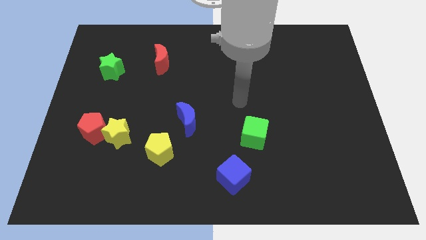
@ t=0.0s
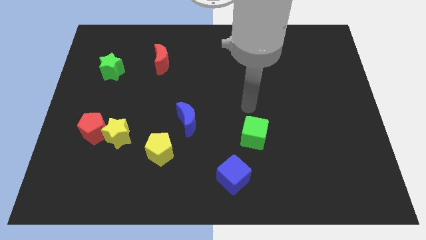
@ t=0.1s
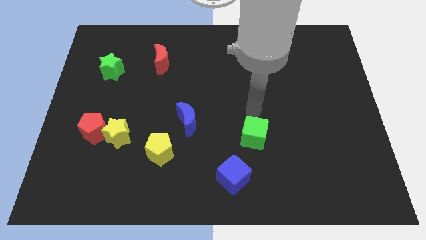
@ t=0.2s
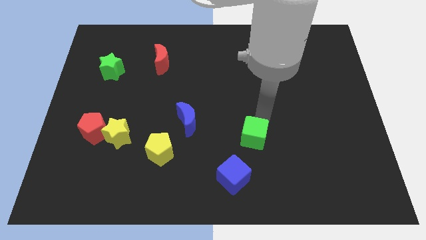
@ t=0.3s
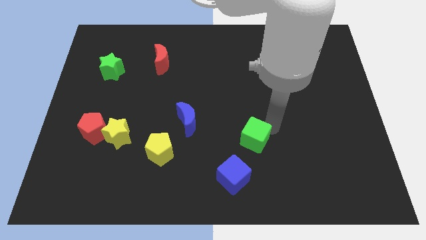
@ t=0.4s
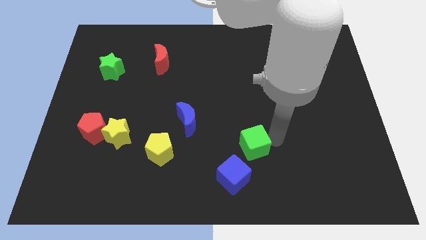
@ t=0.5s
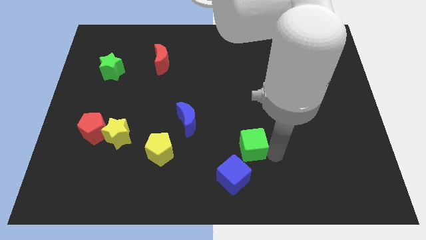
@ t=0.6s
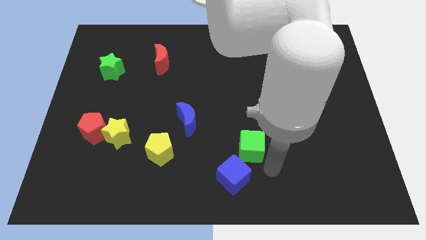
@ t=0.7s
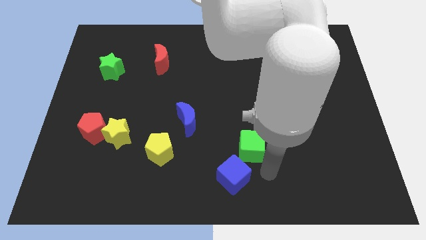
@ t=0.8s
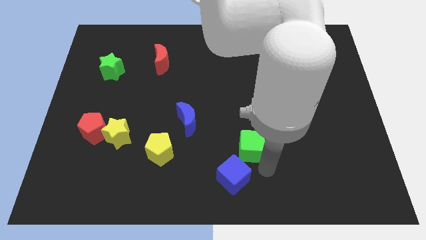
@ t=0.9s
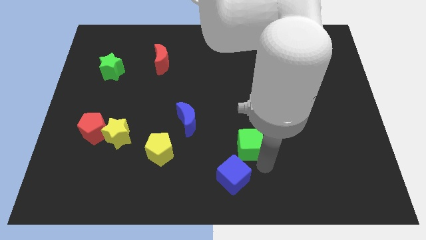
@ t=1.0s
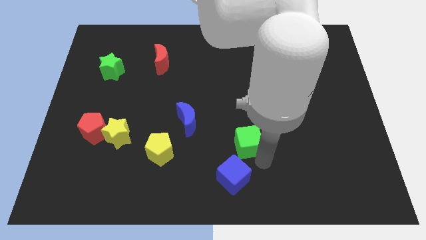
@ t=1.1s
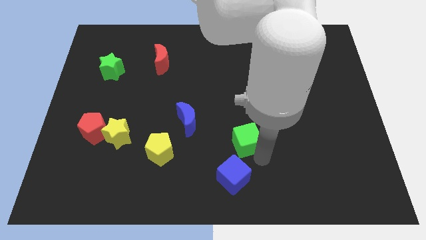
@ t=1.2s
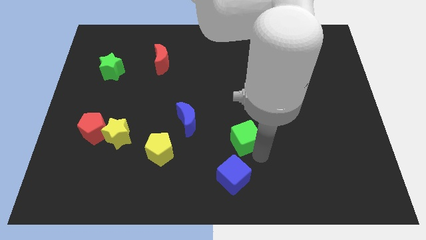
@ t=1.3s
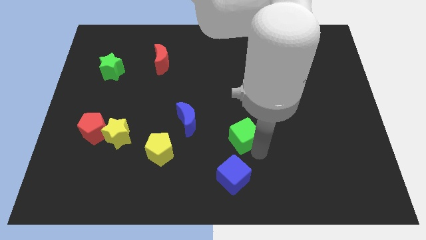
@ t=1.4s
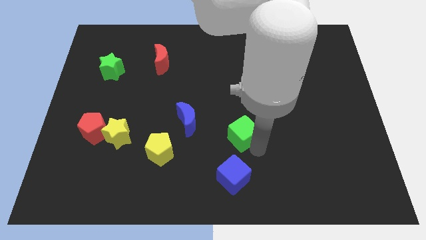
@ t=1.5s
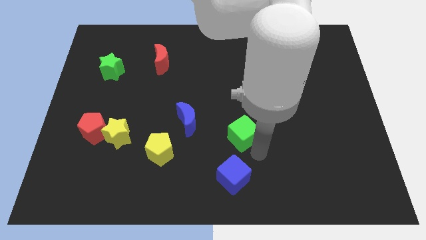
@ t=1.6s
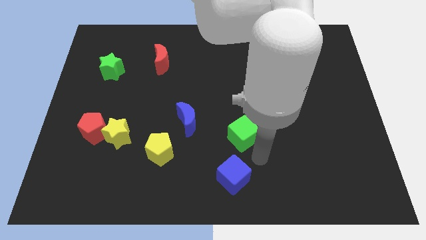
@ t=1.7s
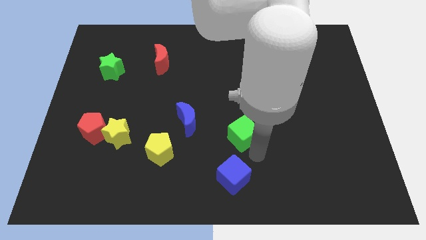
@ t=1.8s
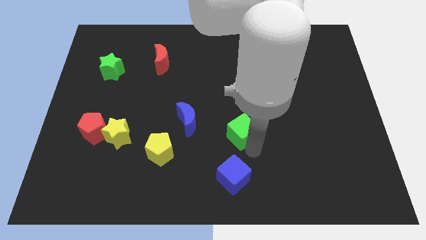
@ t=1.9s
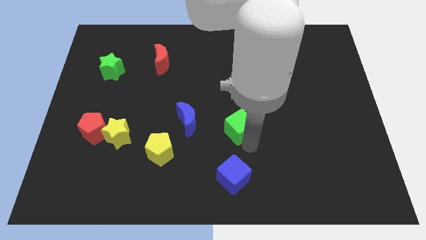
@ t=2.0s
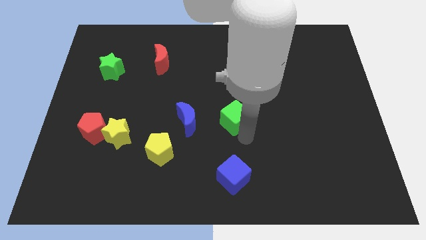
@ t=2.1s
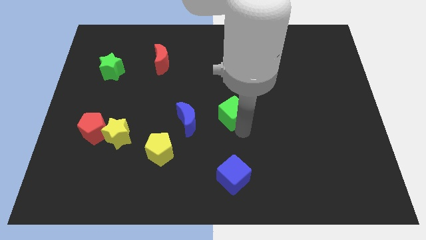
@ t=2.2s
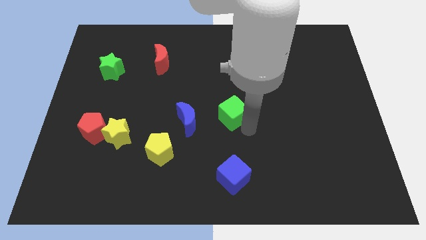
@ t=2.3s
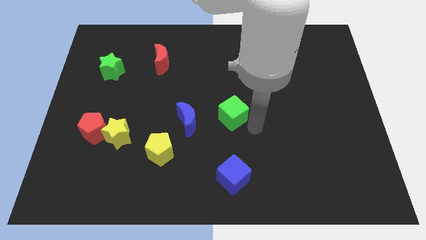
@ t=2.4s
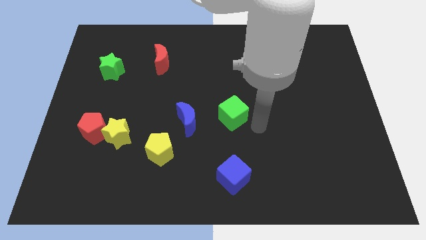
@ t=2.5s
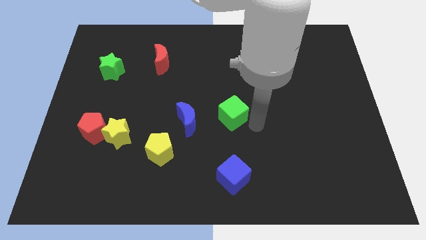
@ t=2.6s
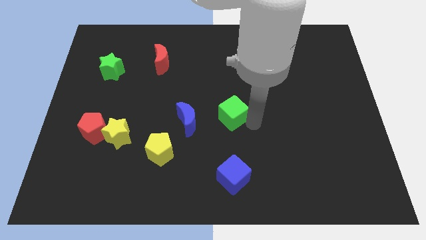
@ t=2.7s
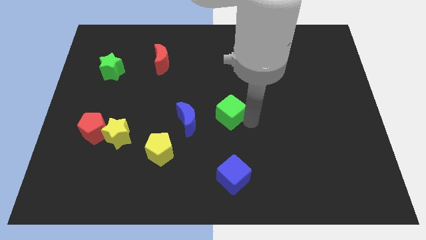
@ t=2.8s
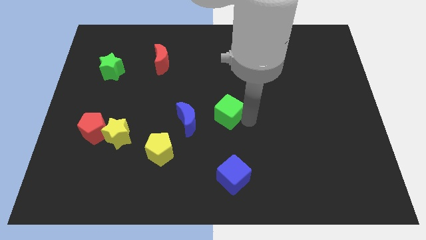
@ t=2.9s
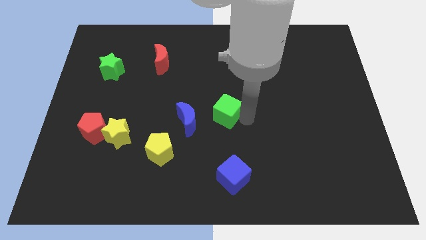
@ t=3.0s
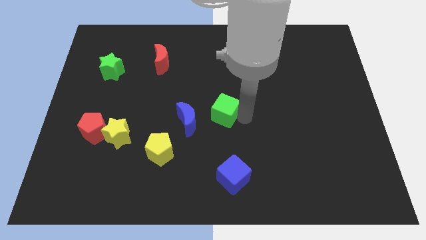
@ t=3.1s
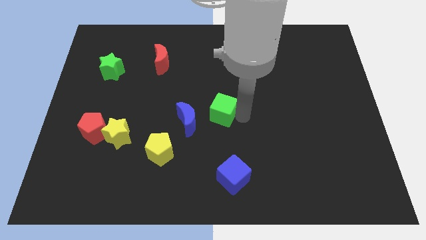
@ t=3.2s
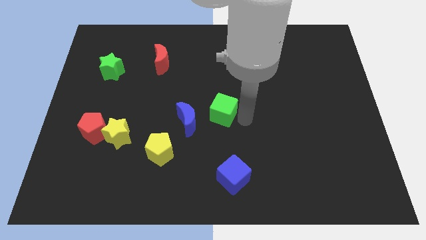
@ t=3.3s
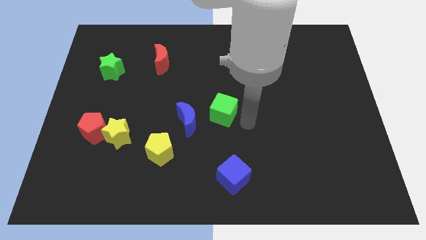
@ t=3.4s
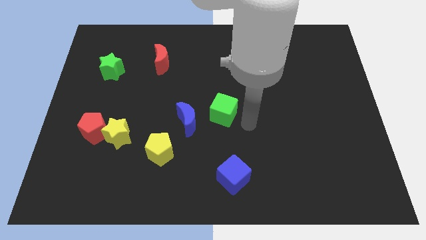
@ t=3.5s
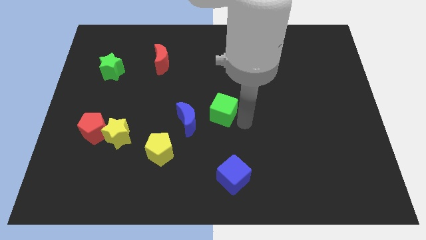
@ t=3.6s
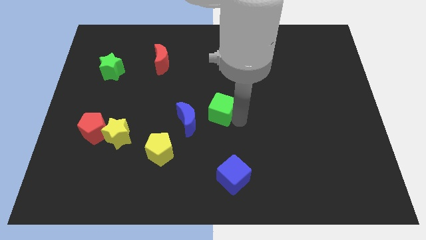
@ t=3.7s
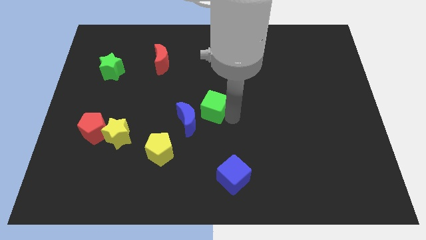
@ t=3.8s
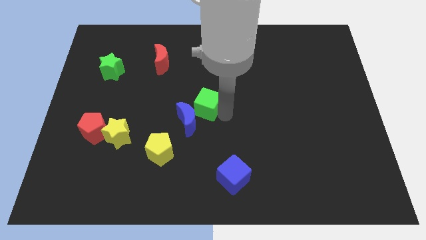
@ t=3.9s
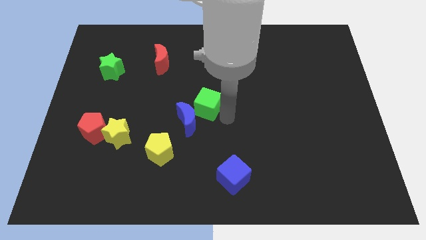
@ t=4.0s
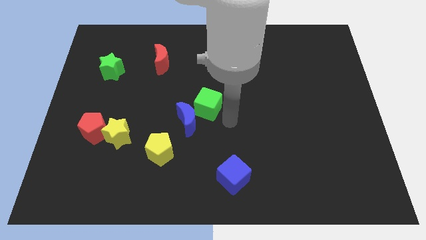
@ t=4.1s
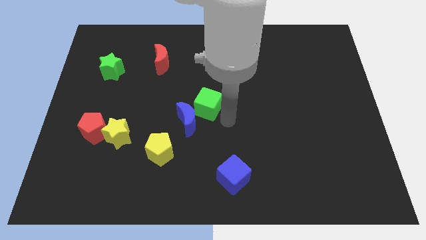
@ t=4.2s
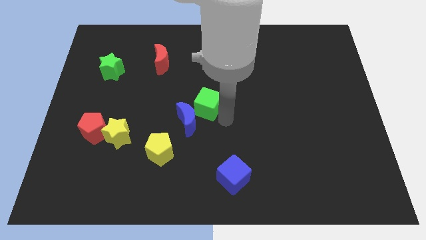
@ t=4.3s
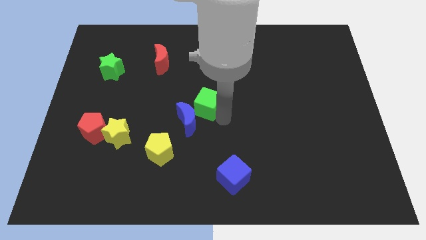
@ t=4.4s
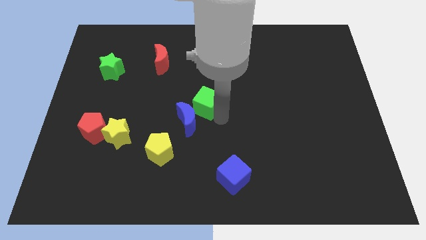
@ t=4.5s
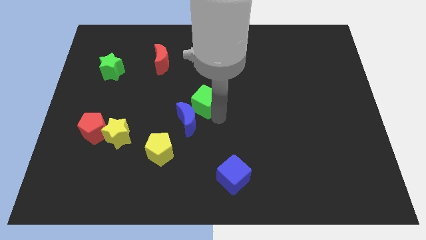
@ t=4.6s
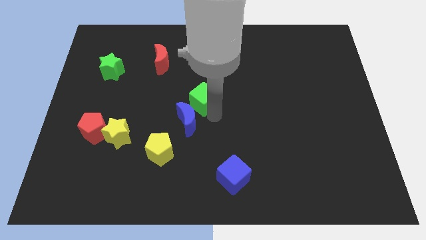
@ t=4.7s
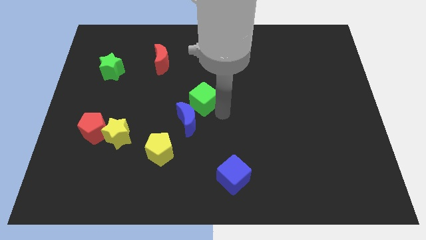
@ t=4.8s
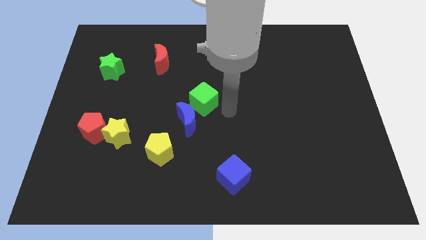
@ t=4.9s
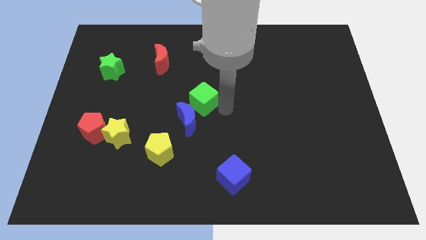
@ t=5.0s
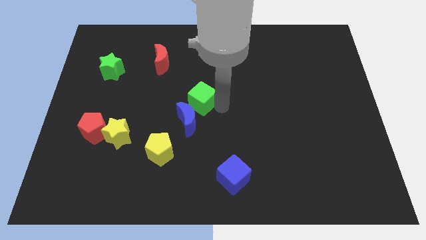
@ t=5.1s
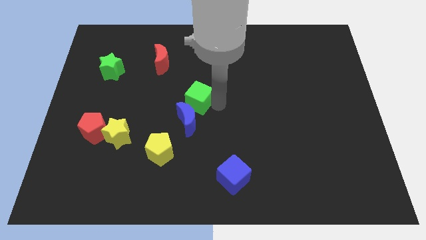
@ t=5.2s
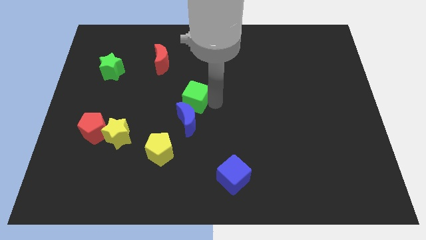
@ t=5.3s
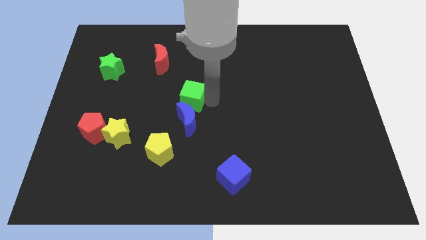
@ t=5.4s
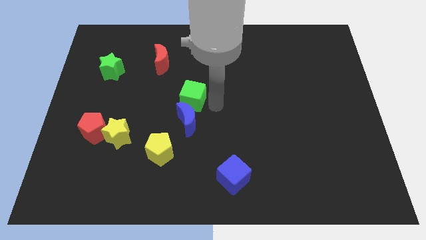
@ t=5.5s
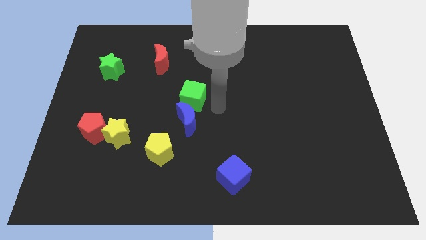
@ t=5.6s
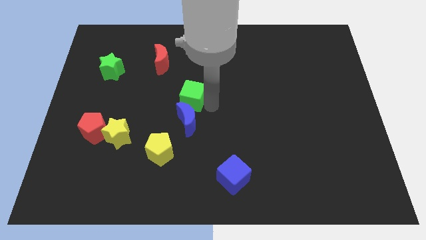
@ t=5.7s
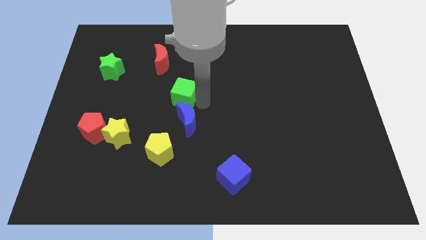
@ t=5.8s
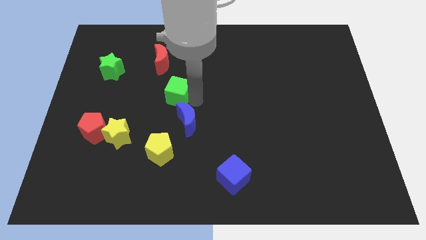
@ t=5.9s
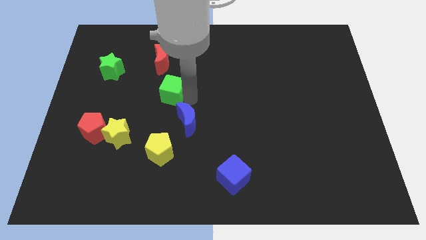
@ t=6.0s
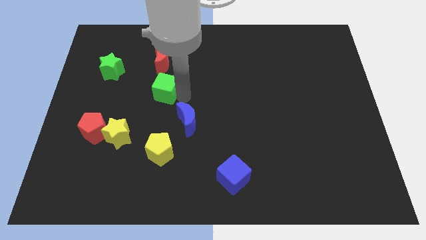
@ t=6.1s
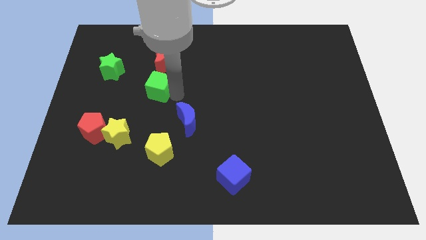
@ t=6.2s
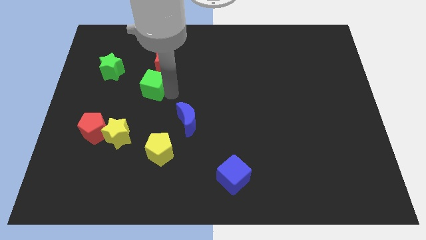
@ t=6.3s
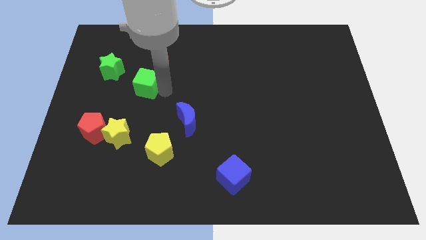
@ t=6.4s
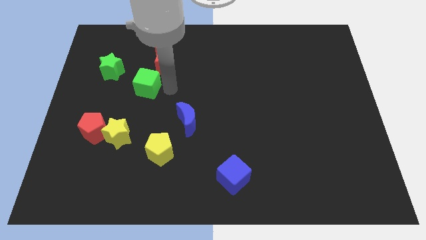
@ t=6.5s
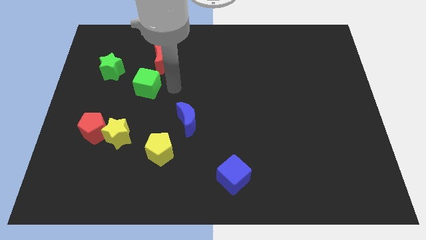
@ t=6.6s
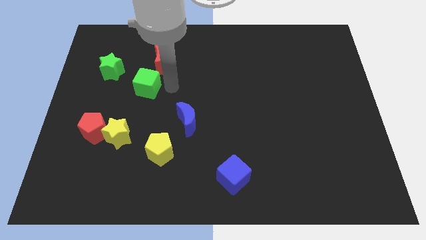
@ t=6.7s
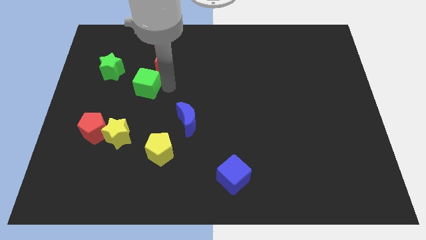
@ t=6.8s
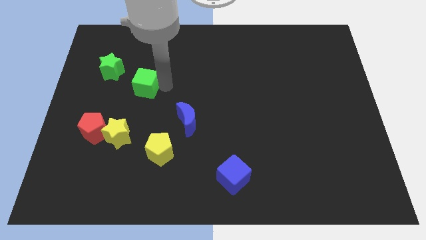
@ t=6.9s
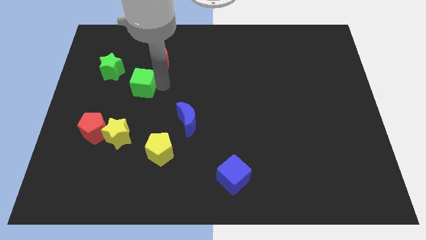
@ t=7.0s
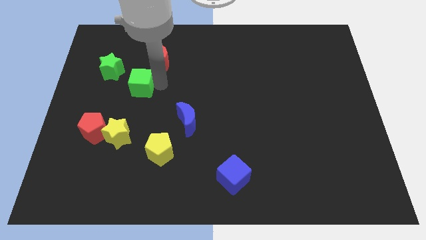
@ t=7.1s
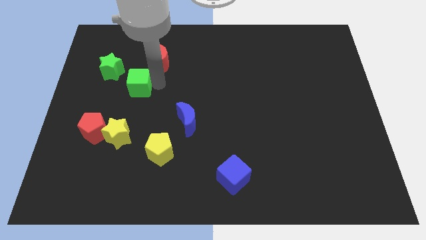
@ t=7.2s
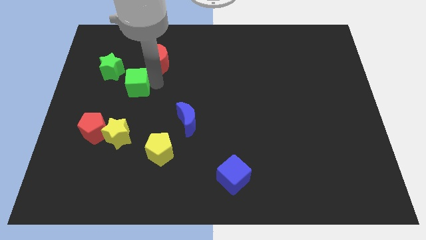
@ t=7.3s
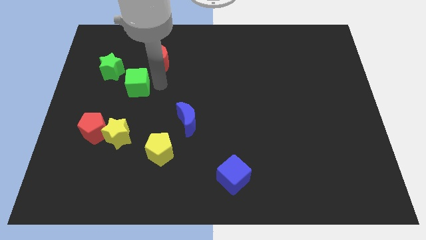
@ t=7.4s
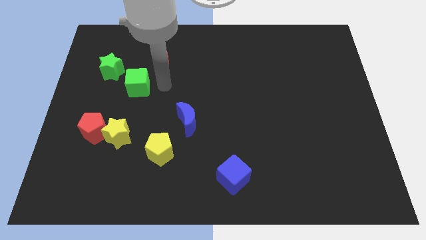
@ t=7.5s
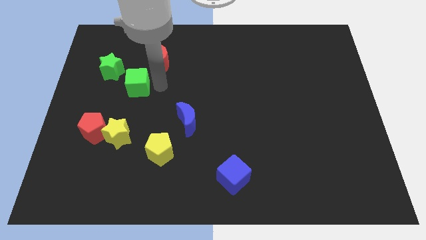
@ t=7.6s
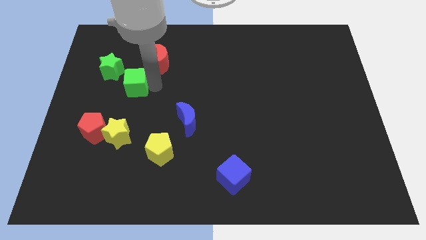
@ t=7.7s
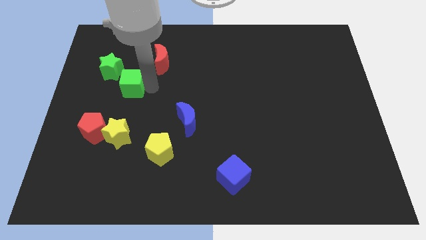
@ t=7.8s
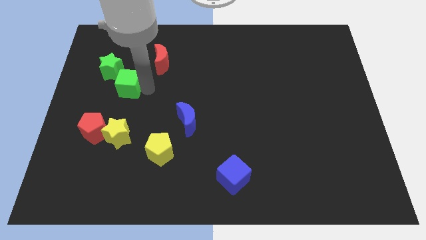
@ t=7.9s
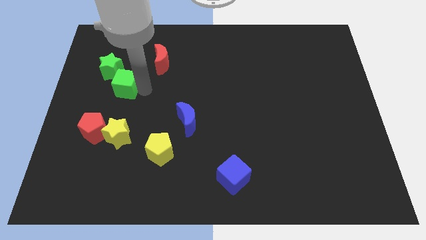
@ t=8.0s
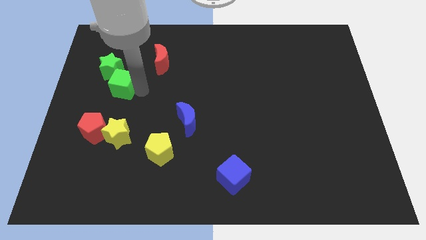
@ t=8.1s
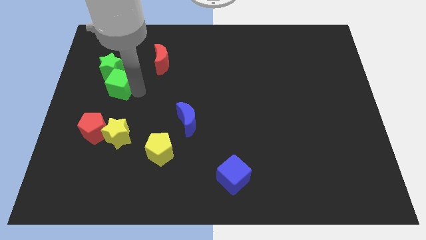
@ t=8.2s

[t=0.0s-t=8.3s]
put the green cube next to the green star
